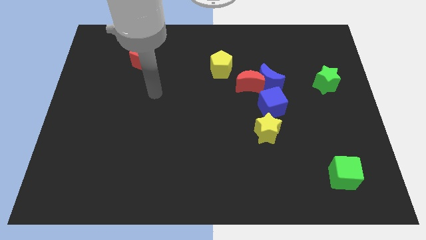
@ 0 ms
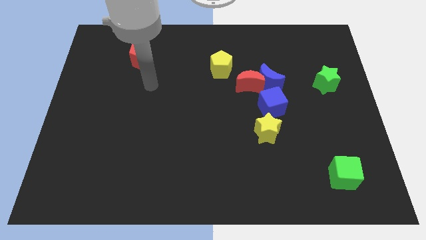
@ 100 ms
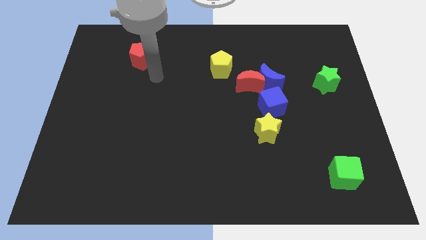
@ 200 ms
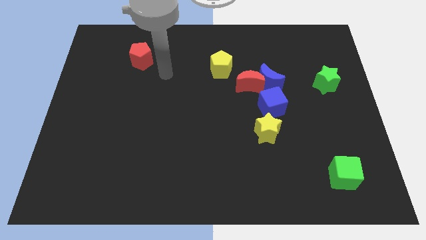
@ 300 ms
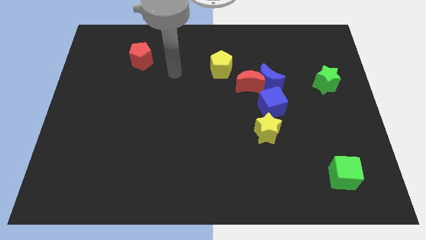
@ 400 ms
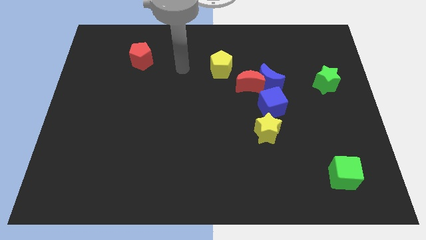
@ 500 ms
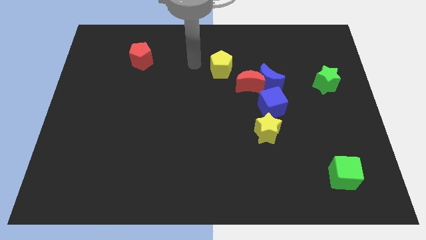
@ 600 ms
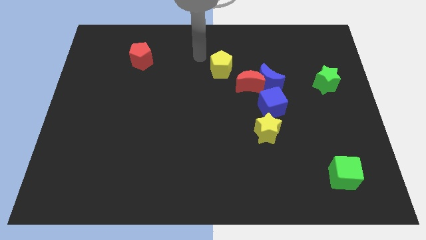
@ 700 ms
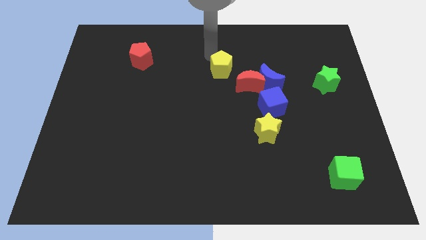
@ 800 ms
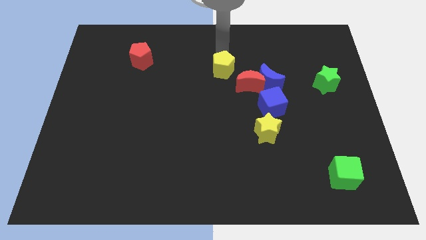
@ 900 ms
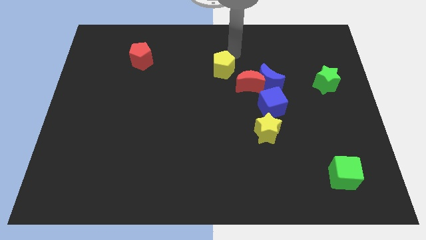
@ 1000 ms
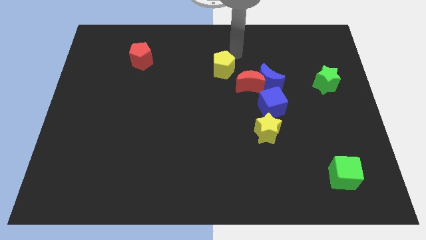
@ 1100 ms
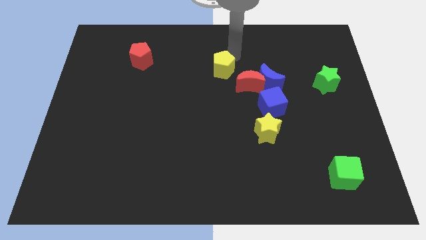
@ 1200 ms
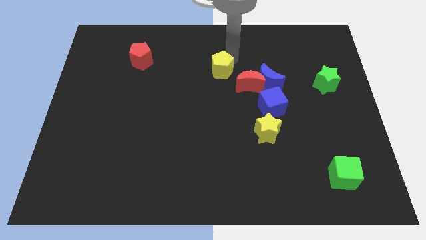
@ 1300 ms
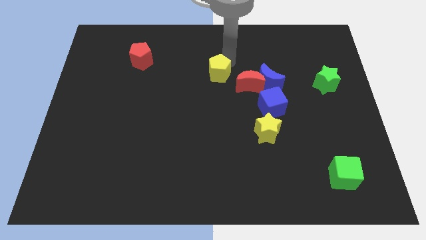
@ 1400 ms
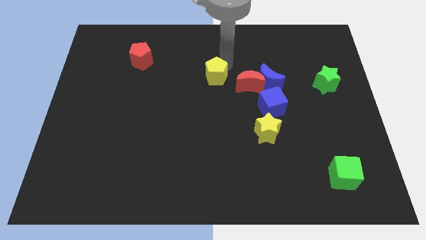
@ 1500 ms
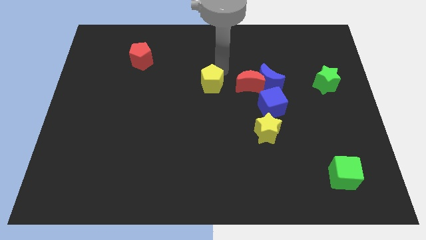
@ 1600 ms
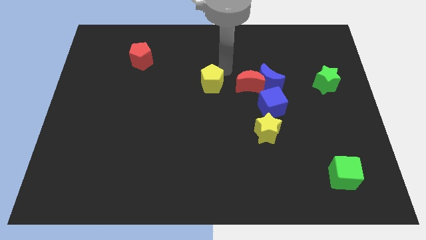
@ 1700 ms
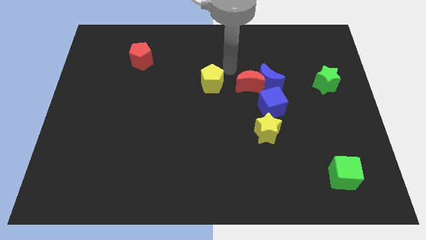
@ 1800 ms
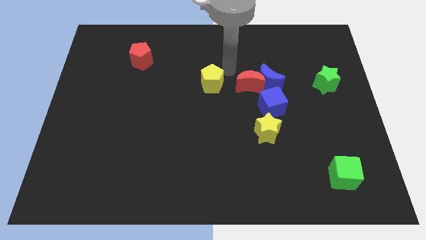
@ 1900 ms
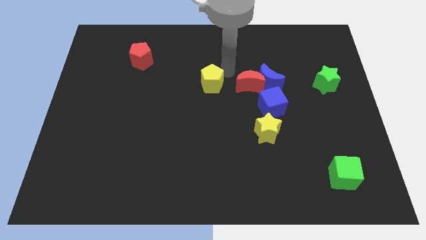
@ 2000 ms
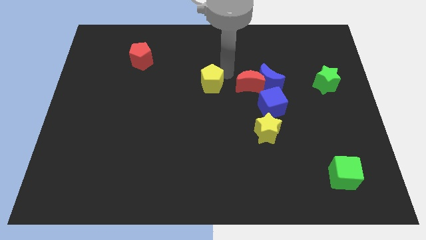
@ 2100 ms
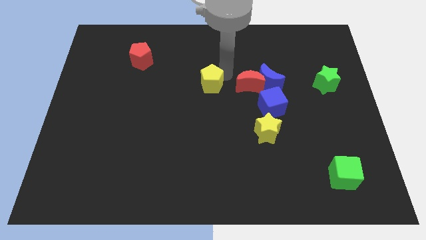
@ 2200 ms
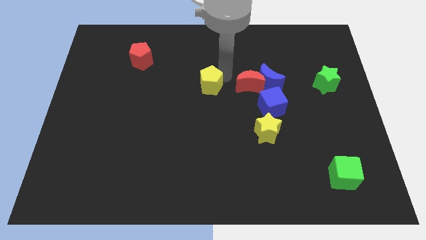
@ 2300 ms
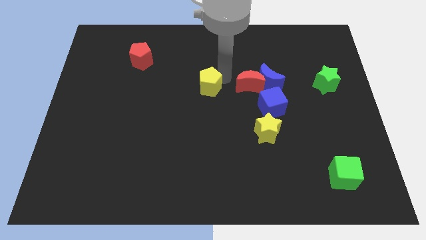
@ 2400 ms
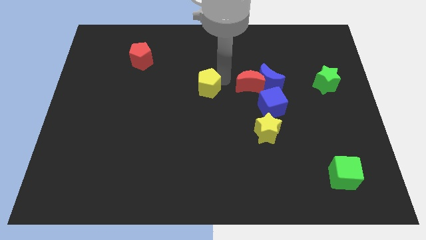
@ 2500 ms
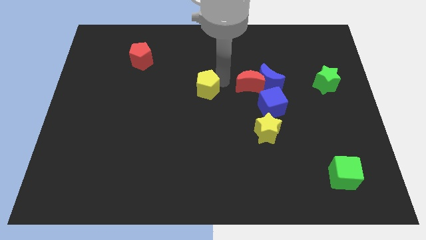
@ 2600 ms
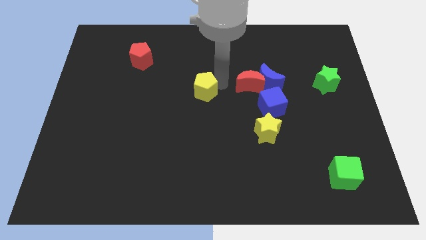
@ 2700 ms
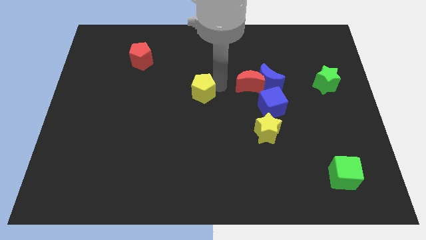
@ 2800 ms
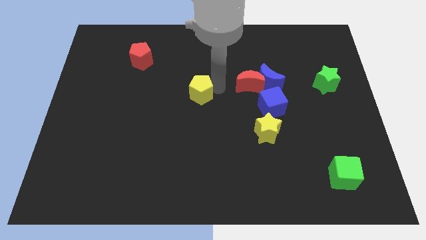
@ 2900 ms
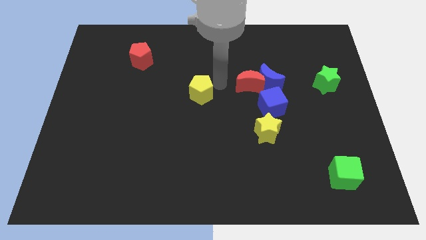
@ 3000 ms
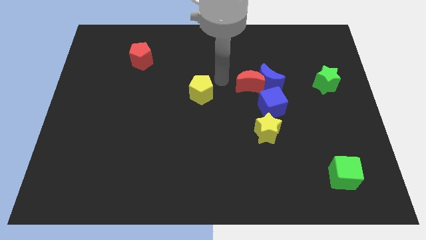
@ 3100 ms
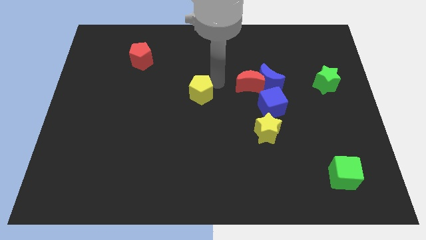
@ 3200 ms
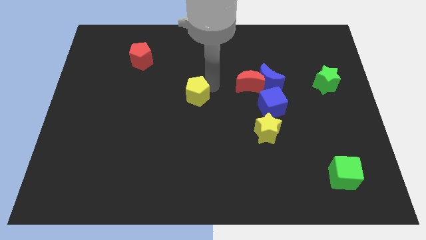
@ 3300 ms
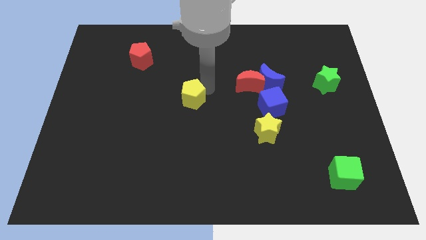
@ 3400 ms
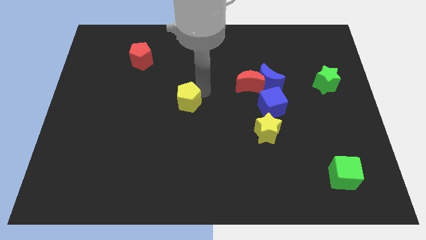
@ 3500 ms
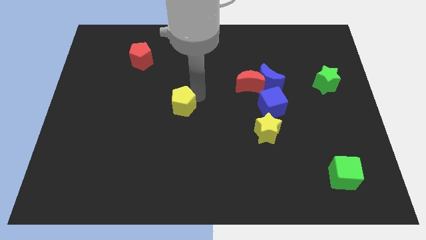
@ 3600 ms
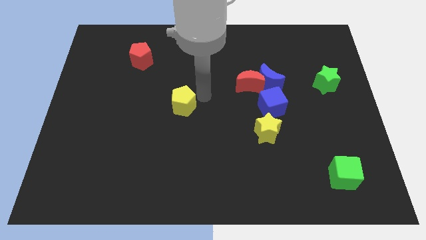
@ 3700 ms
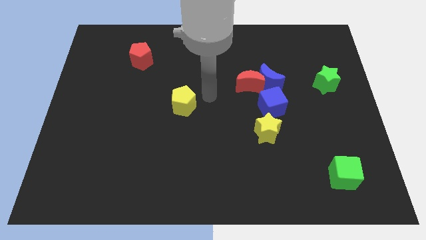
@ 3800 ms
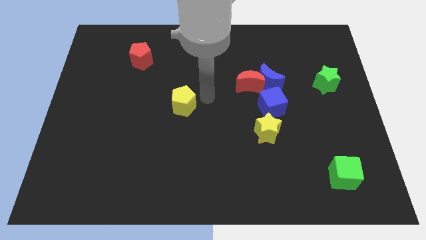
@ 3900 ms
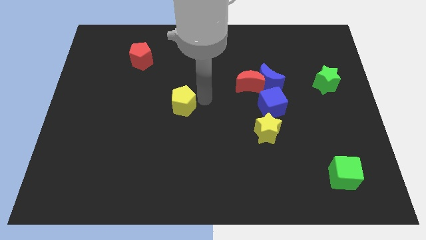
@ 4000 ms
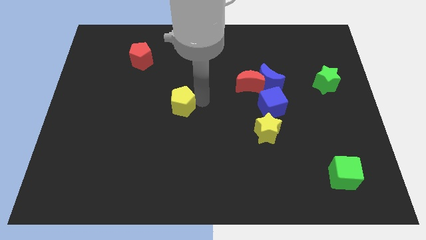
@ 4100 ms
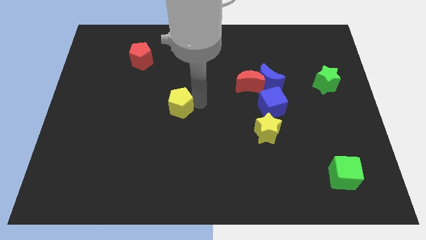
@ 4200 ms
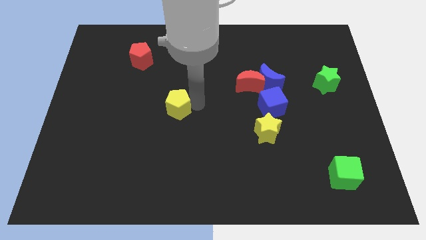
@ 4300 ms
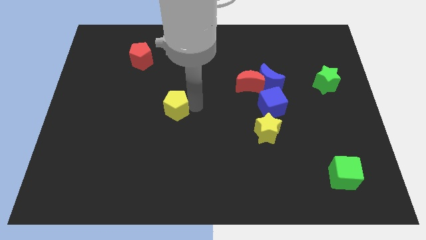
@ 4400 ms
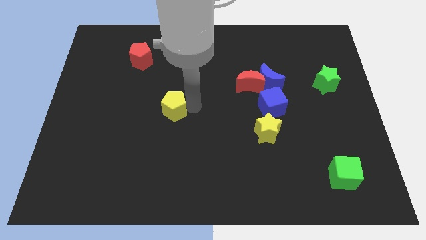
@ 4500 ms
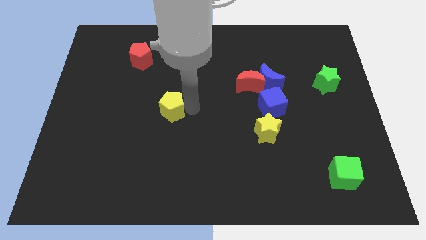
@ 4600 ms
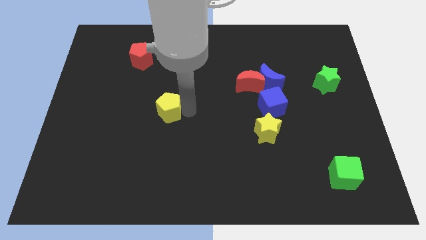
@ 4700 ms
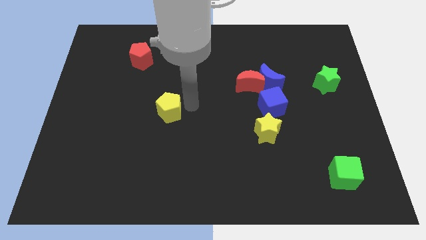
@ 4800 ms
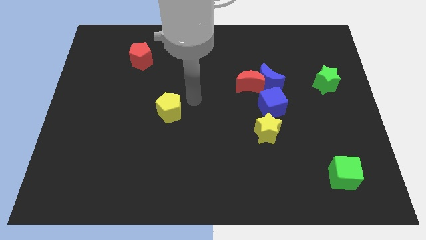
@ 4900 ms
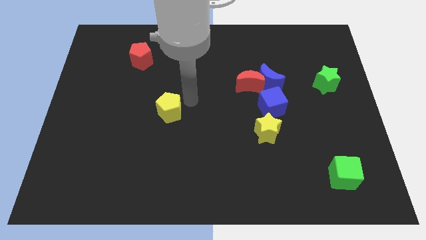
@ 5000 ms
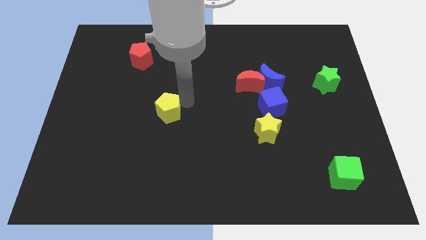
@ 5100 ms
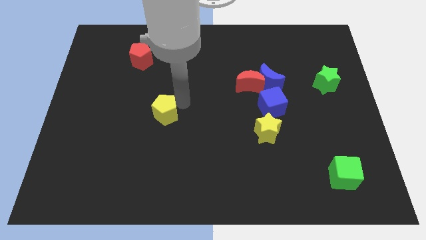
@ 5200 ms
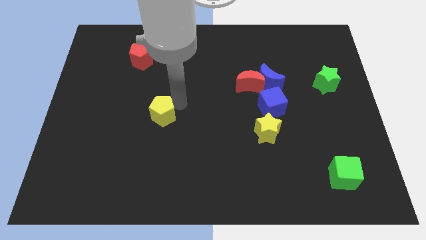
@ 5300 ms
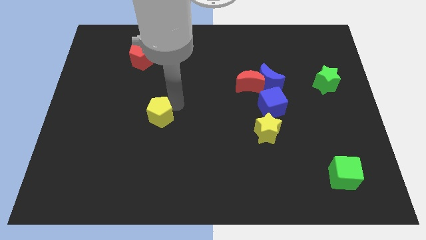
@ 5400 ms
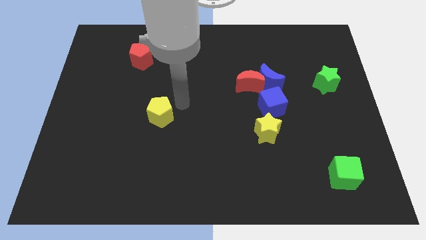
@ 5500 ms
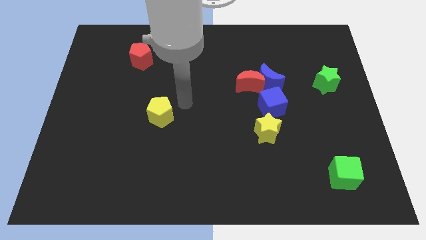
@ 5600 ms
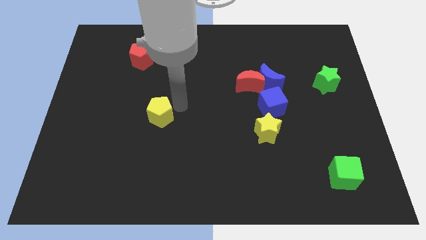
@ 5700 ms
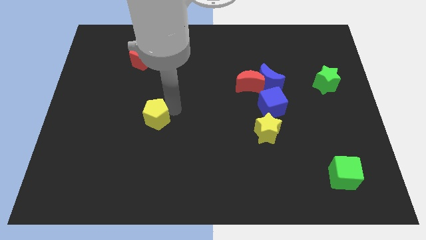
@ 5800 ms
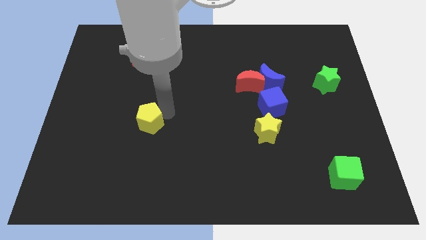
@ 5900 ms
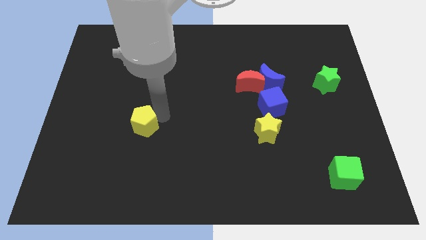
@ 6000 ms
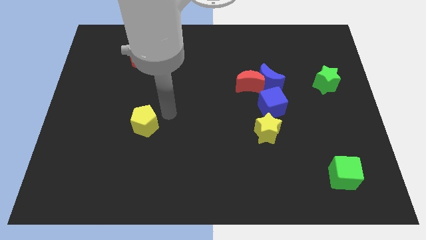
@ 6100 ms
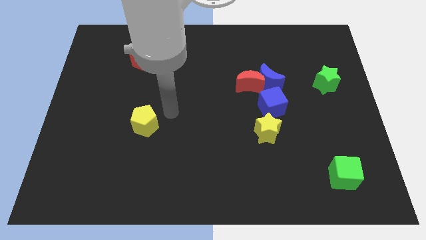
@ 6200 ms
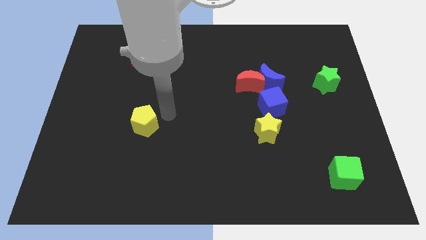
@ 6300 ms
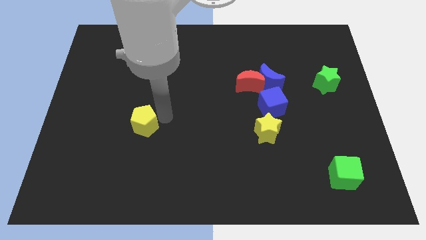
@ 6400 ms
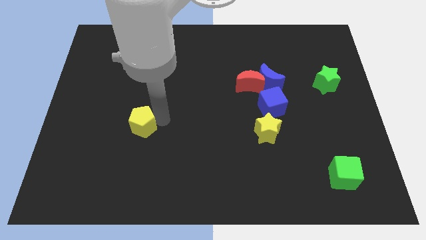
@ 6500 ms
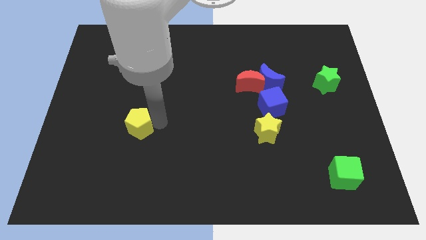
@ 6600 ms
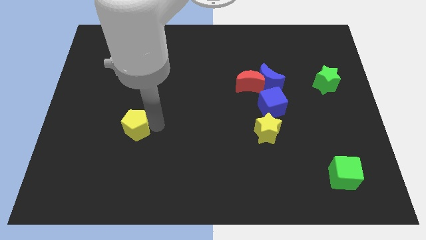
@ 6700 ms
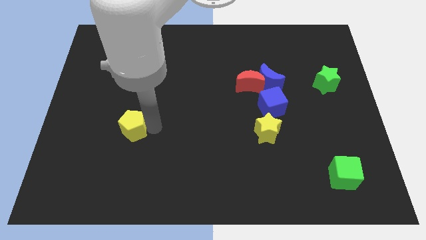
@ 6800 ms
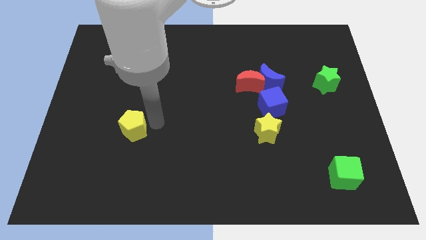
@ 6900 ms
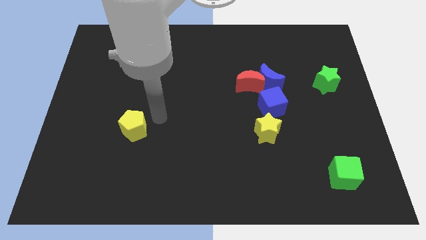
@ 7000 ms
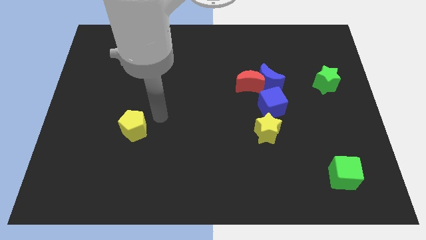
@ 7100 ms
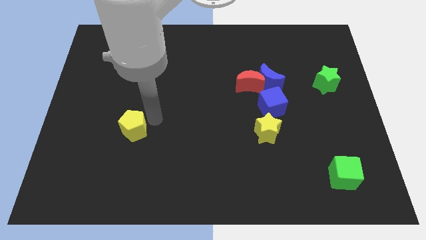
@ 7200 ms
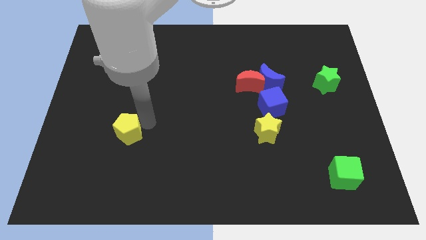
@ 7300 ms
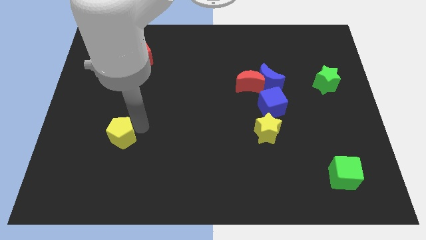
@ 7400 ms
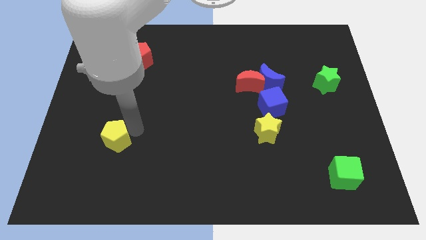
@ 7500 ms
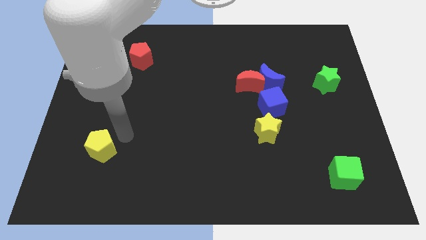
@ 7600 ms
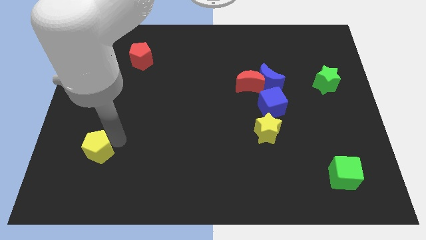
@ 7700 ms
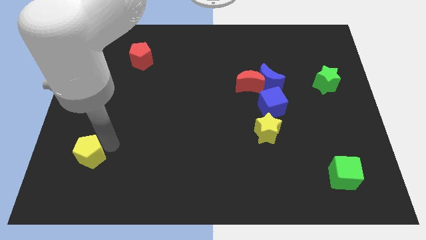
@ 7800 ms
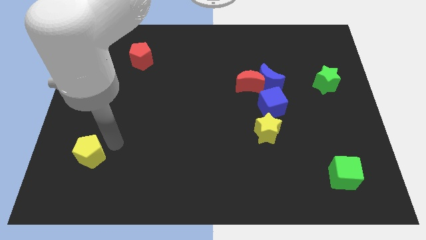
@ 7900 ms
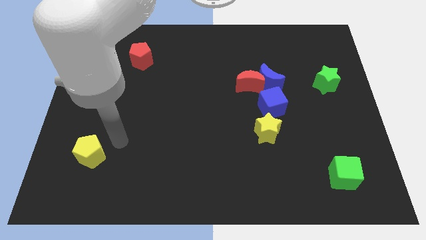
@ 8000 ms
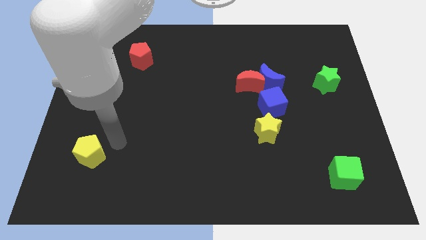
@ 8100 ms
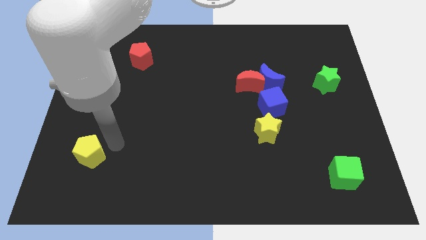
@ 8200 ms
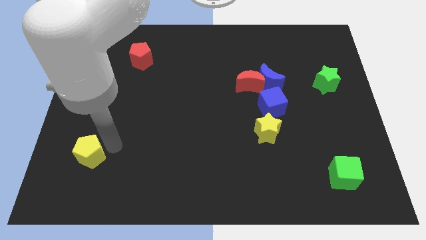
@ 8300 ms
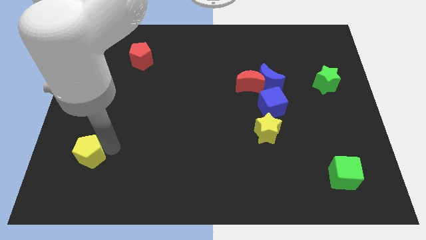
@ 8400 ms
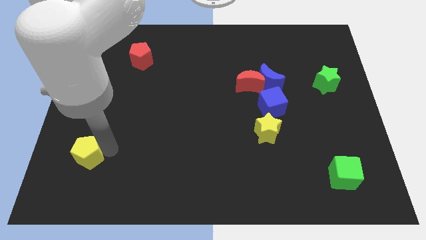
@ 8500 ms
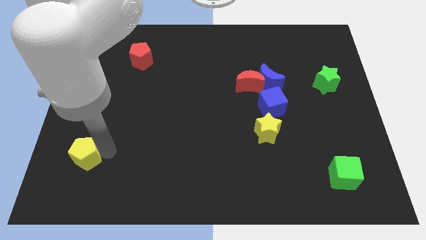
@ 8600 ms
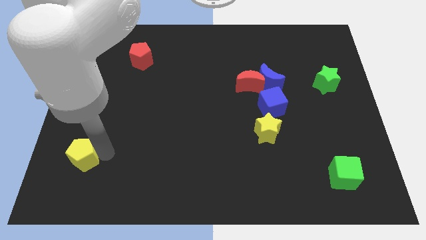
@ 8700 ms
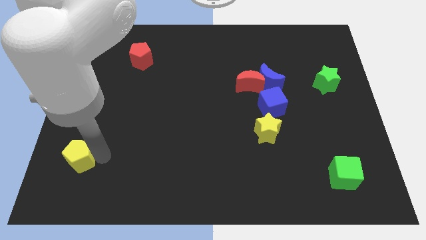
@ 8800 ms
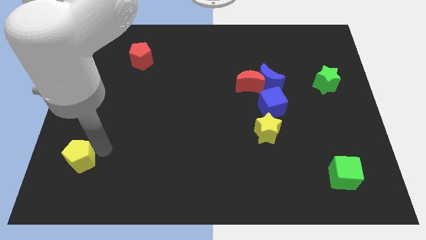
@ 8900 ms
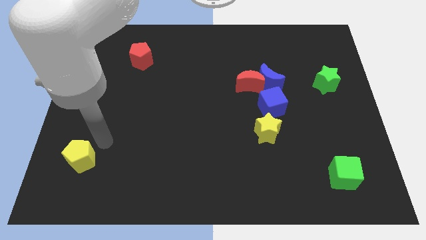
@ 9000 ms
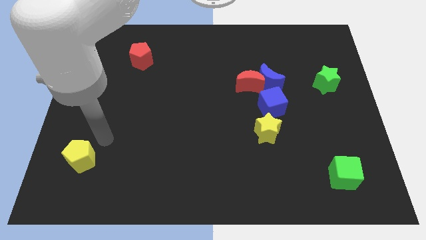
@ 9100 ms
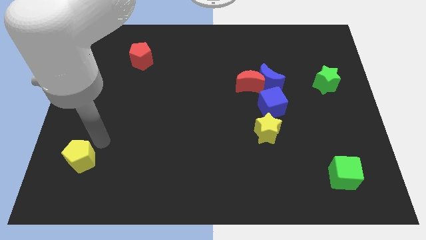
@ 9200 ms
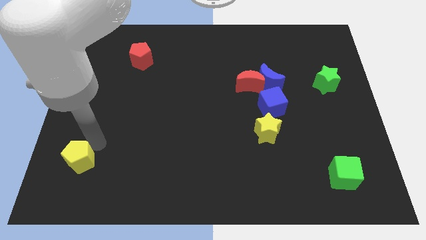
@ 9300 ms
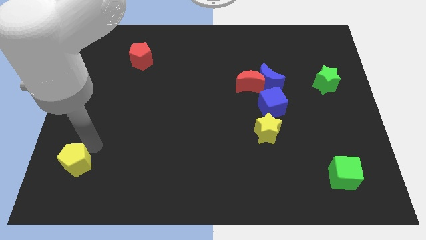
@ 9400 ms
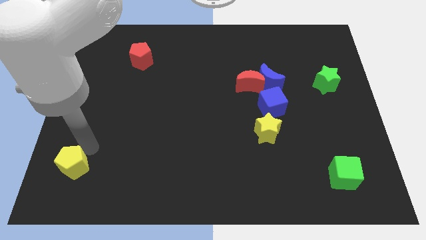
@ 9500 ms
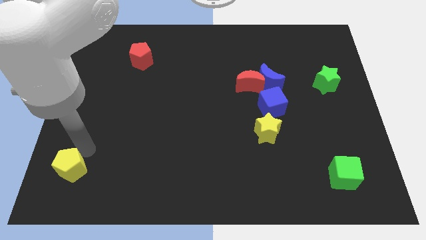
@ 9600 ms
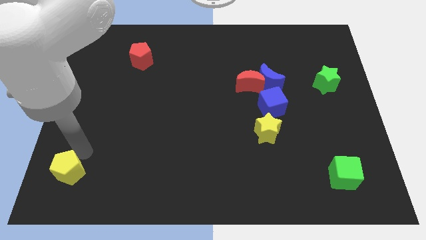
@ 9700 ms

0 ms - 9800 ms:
slide the yellow pentagon to the bottom left corner
